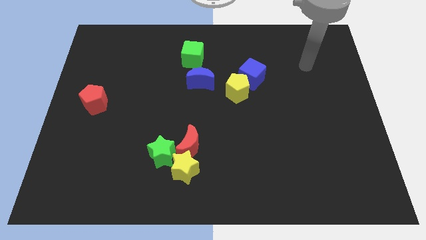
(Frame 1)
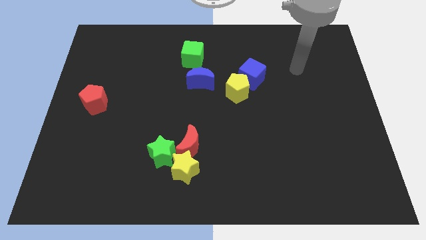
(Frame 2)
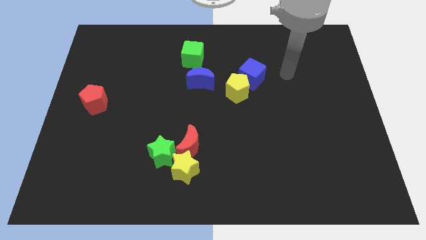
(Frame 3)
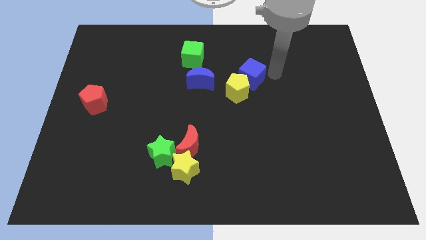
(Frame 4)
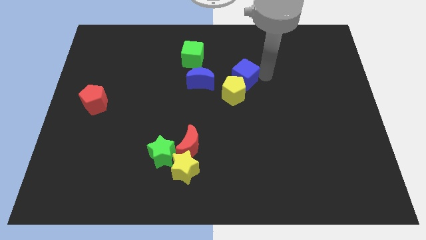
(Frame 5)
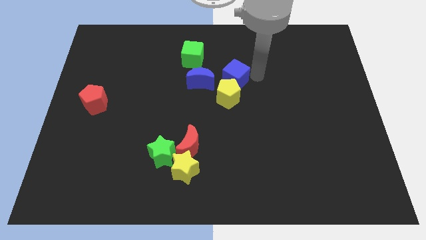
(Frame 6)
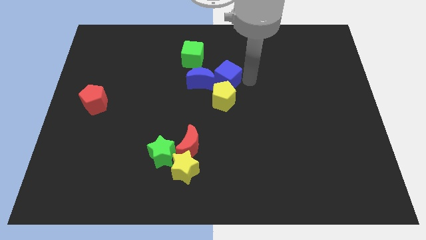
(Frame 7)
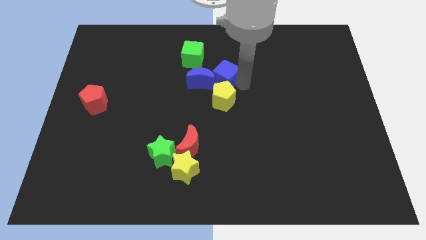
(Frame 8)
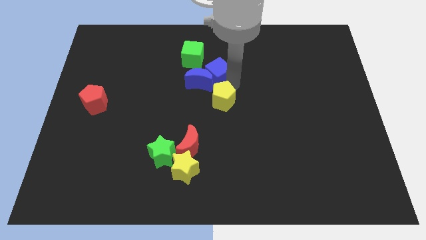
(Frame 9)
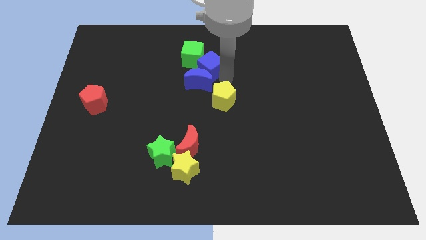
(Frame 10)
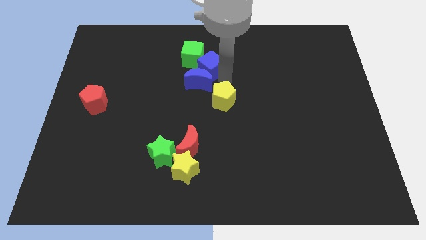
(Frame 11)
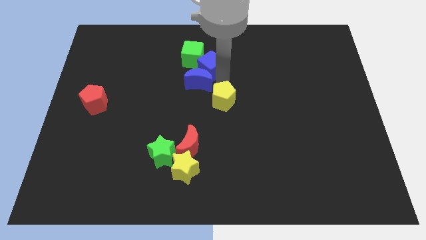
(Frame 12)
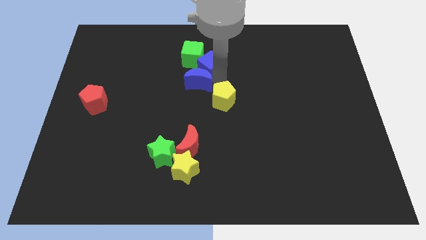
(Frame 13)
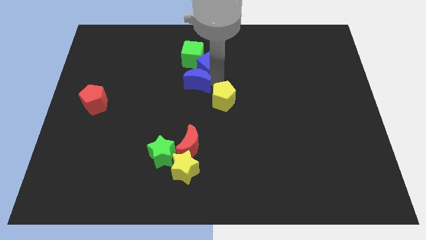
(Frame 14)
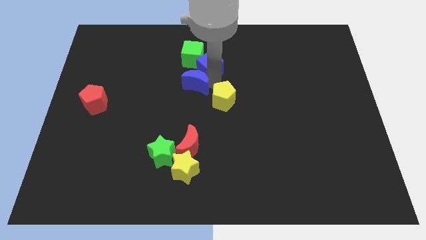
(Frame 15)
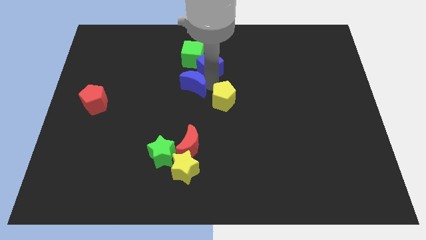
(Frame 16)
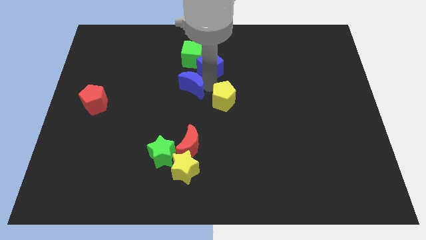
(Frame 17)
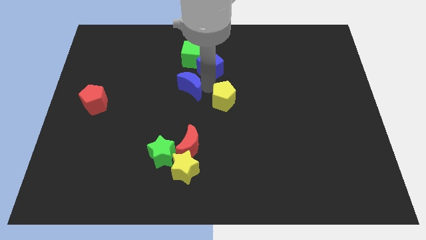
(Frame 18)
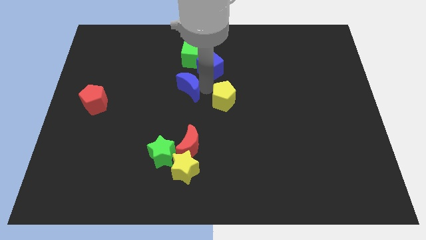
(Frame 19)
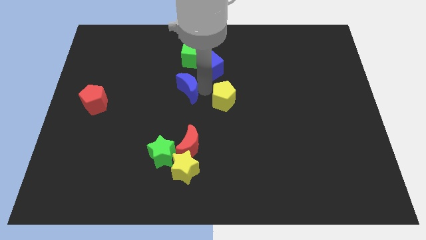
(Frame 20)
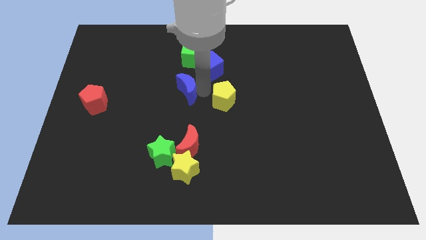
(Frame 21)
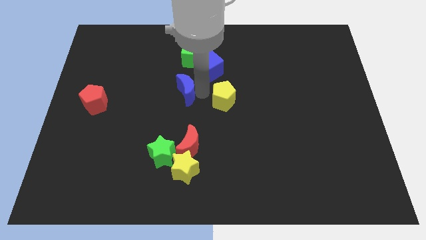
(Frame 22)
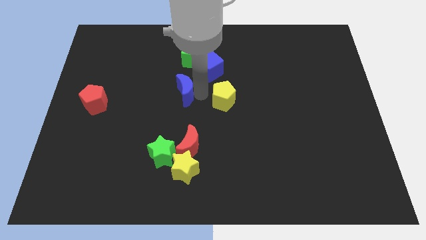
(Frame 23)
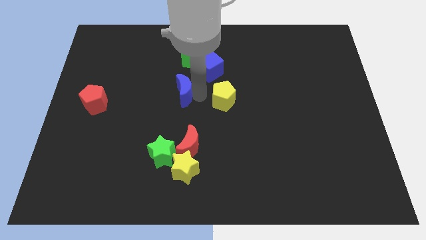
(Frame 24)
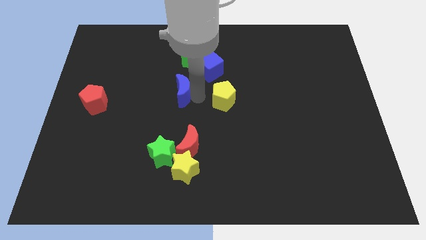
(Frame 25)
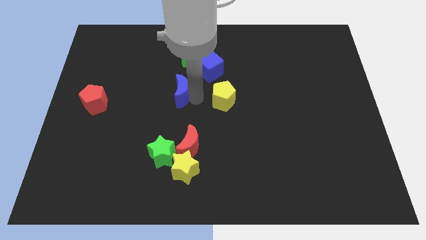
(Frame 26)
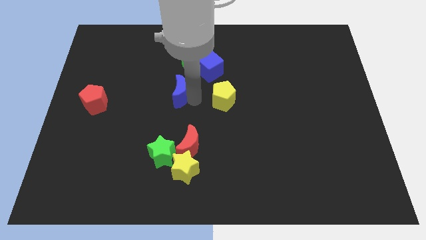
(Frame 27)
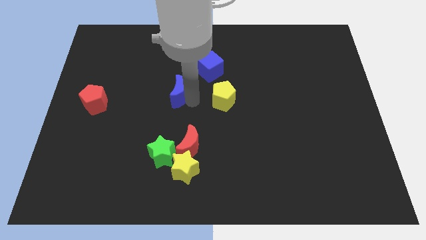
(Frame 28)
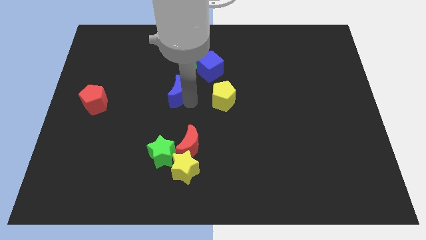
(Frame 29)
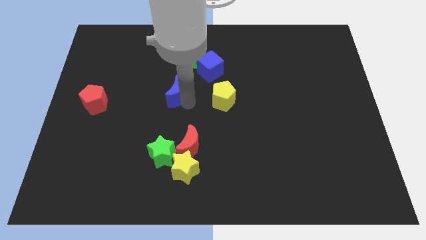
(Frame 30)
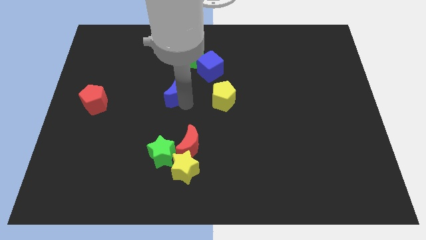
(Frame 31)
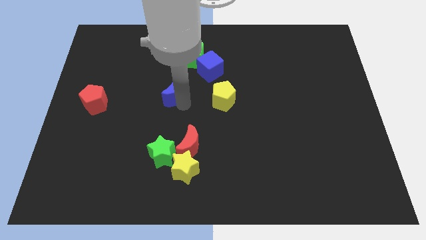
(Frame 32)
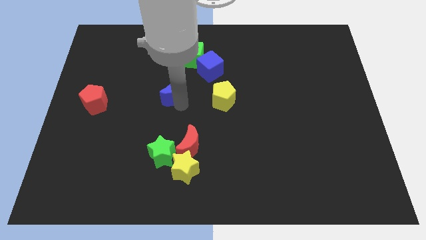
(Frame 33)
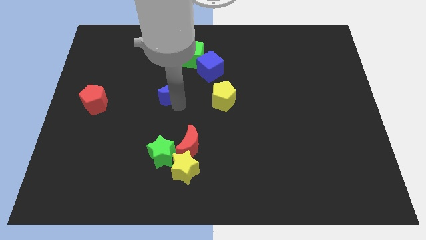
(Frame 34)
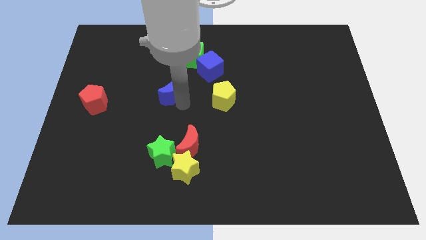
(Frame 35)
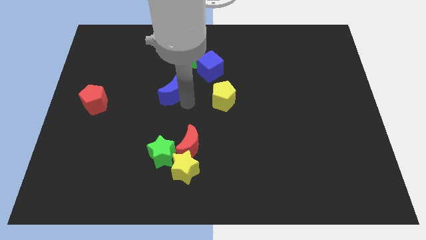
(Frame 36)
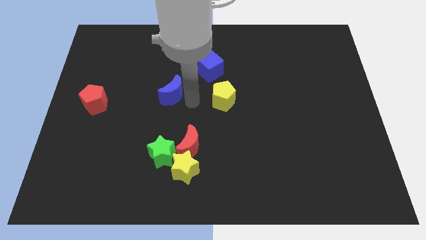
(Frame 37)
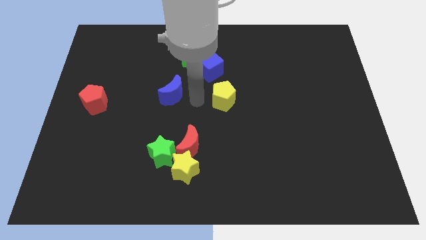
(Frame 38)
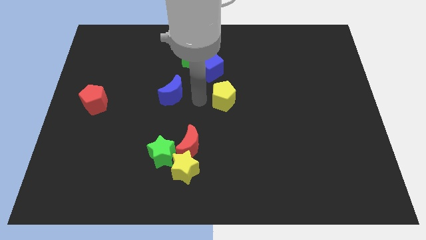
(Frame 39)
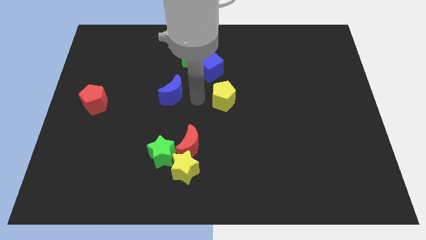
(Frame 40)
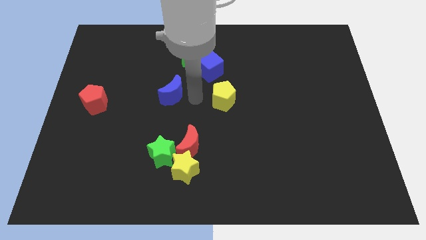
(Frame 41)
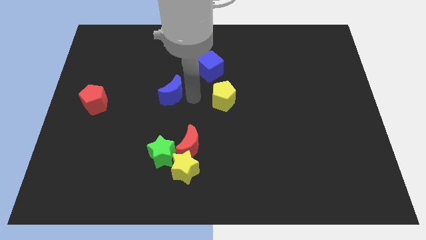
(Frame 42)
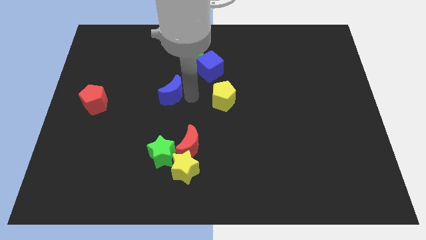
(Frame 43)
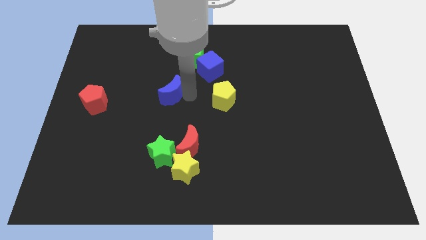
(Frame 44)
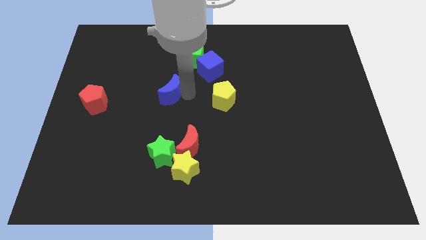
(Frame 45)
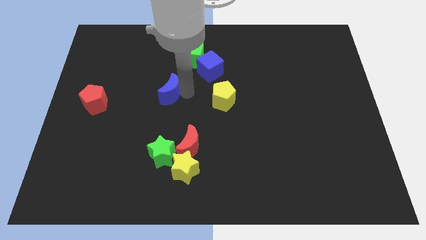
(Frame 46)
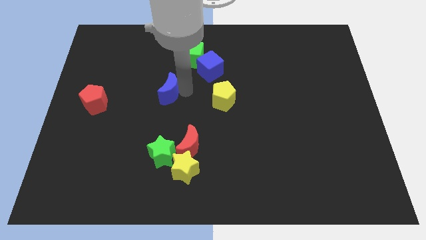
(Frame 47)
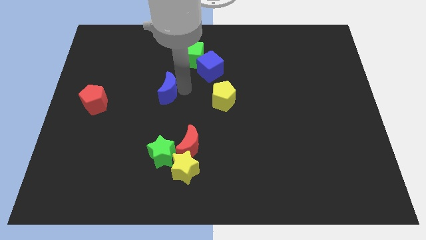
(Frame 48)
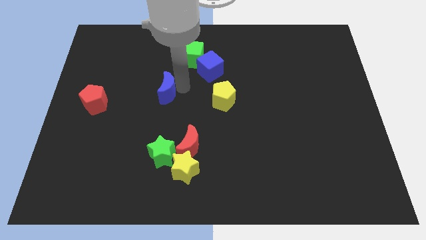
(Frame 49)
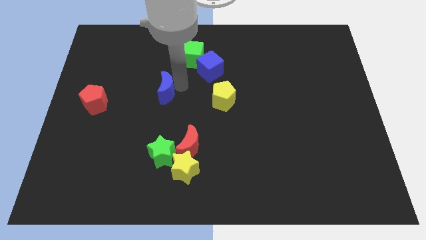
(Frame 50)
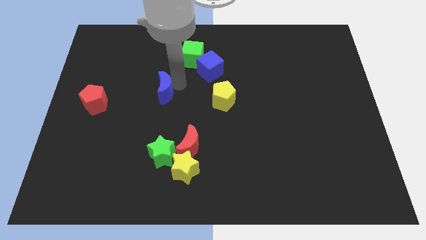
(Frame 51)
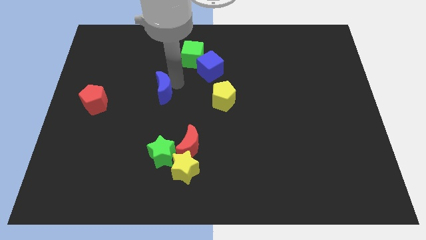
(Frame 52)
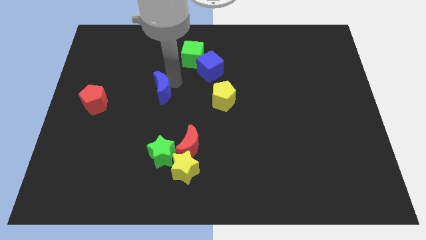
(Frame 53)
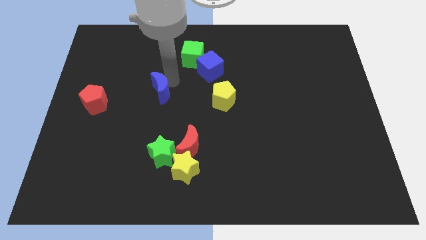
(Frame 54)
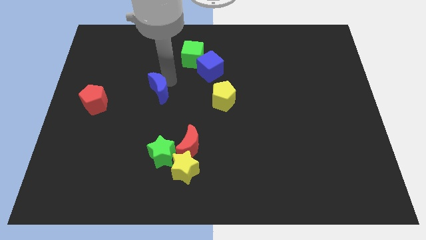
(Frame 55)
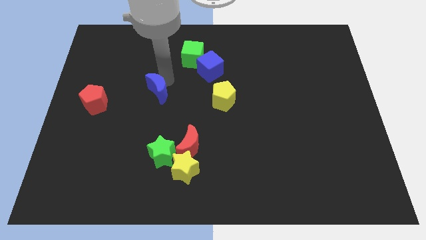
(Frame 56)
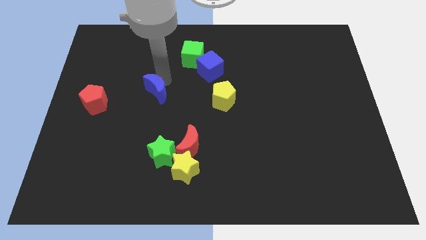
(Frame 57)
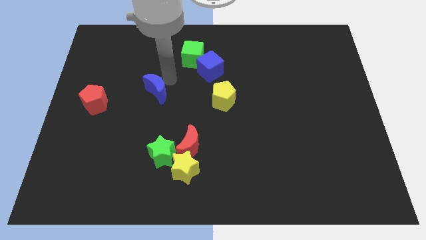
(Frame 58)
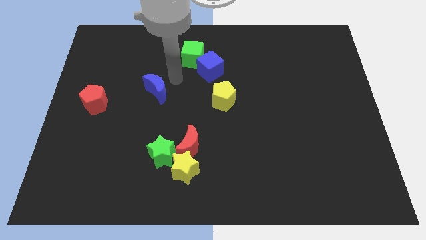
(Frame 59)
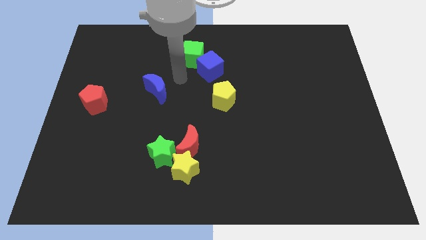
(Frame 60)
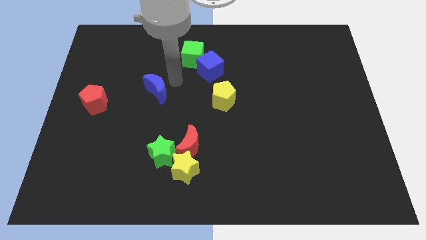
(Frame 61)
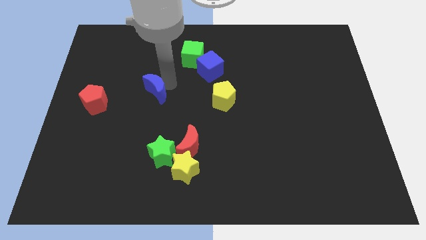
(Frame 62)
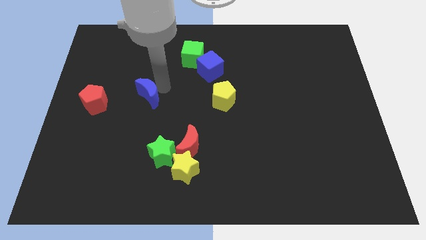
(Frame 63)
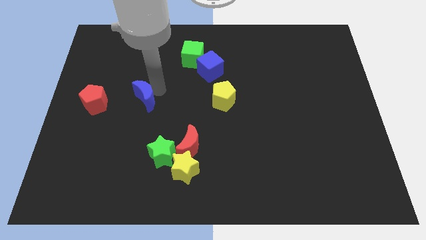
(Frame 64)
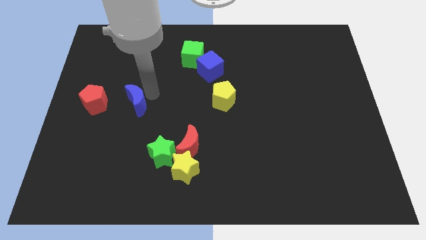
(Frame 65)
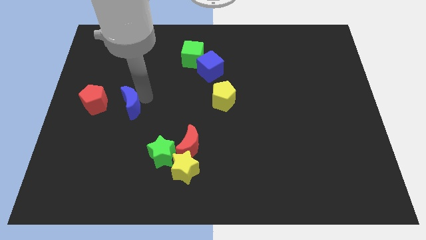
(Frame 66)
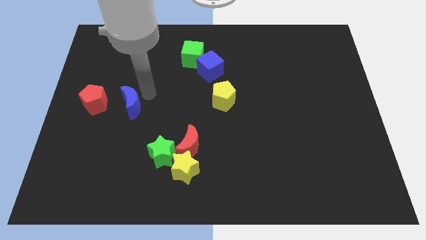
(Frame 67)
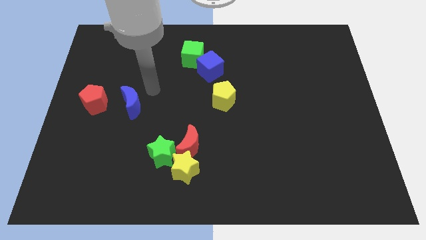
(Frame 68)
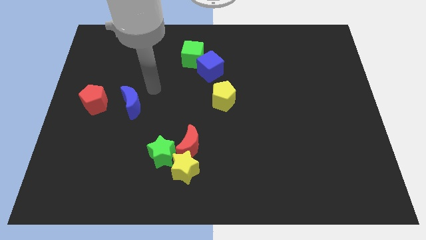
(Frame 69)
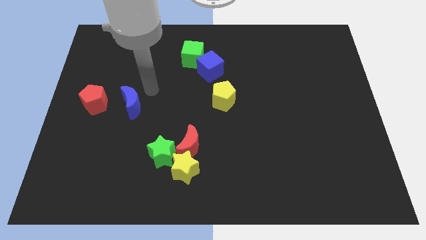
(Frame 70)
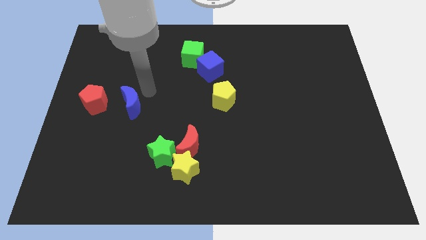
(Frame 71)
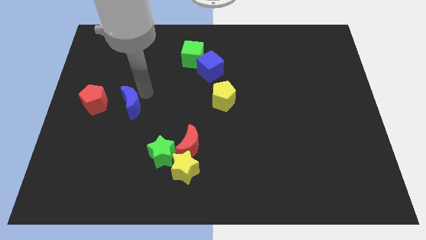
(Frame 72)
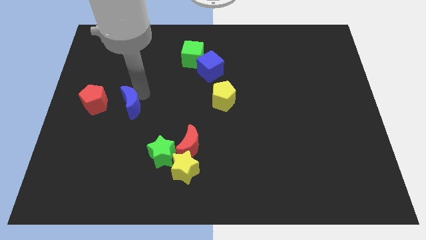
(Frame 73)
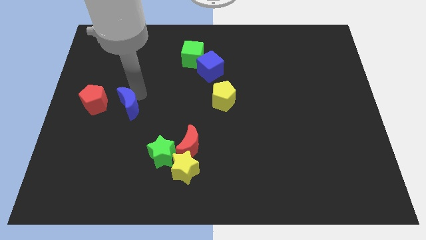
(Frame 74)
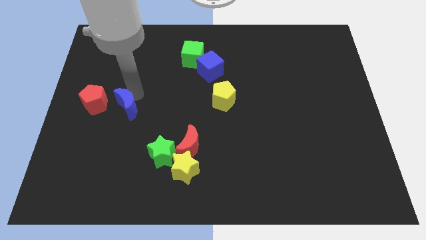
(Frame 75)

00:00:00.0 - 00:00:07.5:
put the blue moon to the bottom right side of the red pentagon

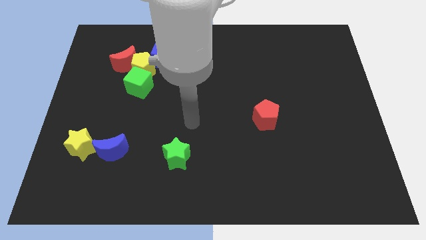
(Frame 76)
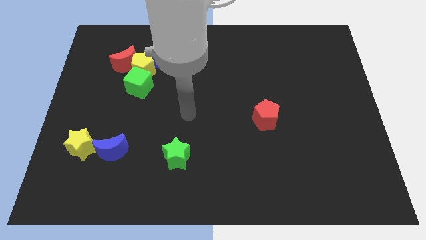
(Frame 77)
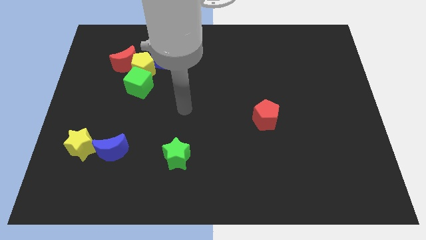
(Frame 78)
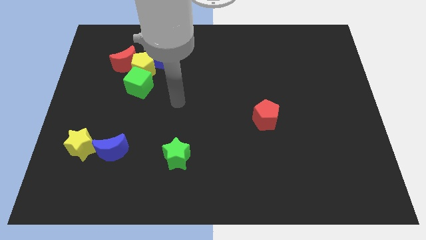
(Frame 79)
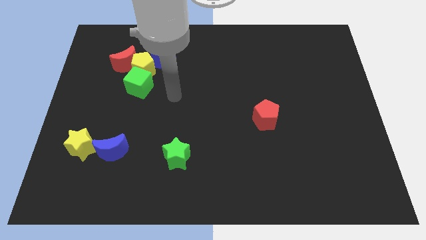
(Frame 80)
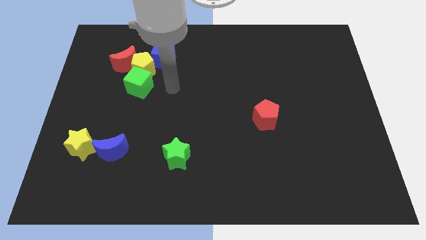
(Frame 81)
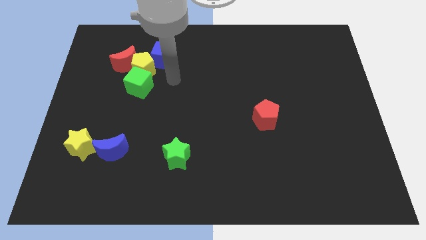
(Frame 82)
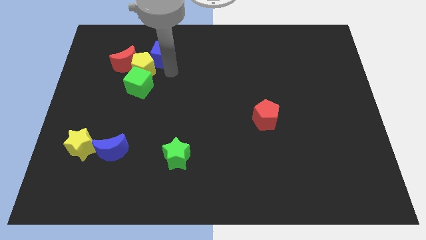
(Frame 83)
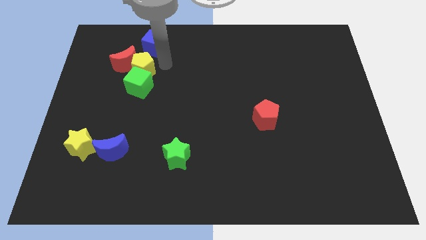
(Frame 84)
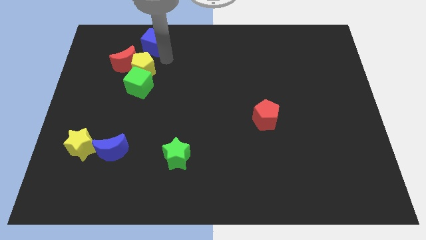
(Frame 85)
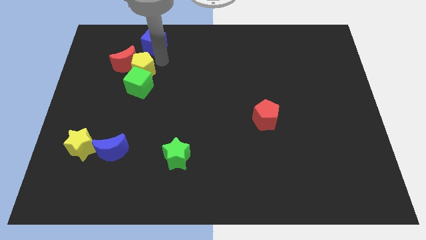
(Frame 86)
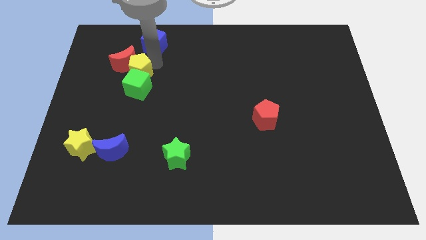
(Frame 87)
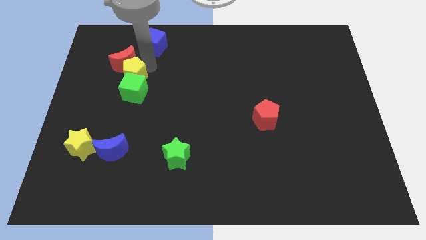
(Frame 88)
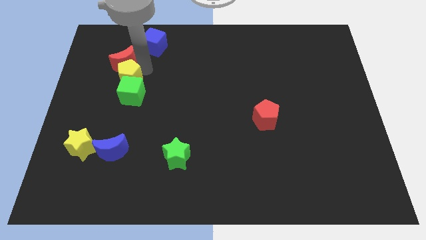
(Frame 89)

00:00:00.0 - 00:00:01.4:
move the yellow pentagon to the bottom left of the red moon
